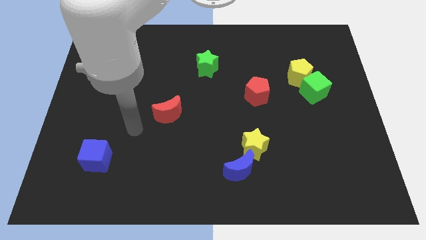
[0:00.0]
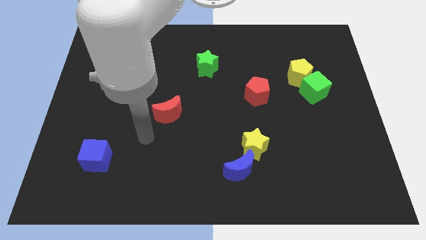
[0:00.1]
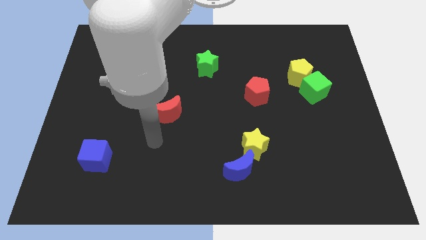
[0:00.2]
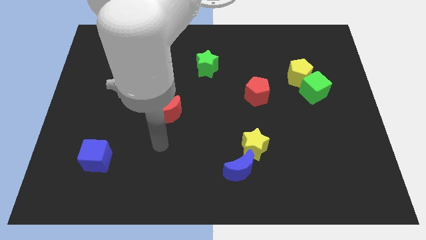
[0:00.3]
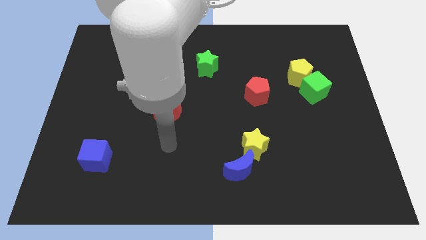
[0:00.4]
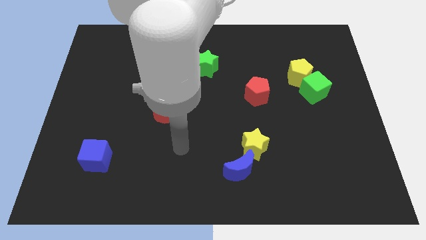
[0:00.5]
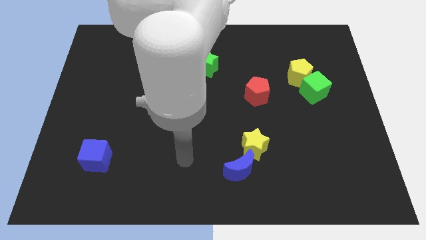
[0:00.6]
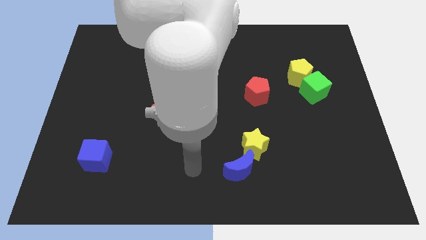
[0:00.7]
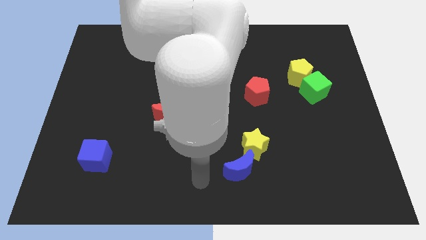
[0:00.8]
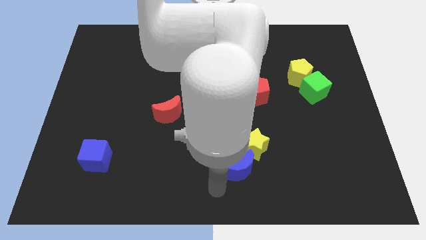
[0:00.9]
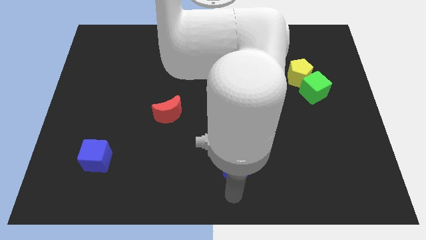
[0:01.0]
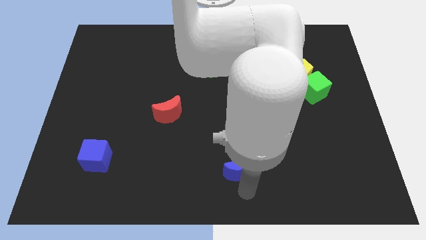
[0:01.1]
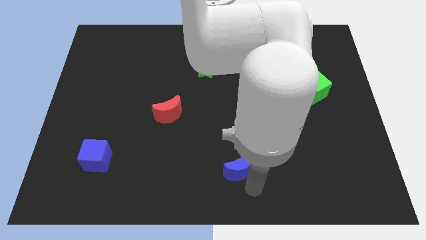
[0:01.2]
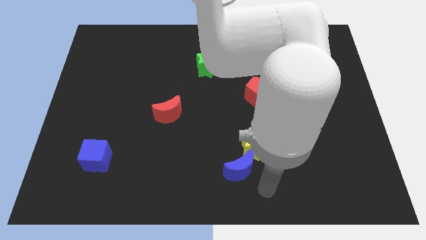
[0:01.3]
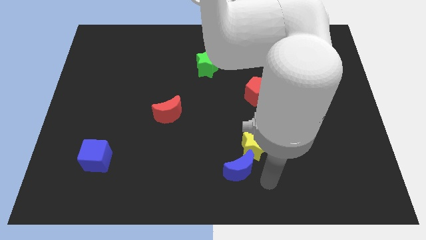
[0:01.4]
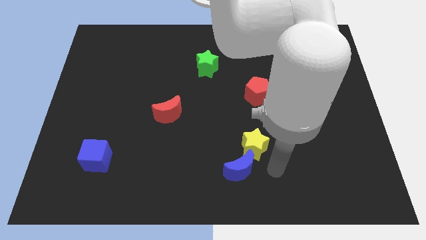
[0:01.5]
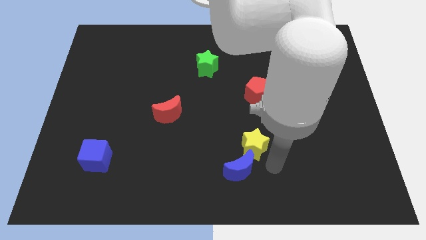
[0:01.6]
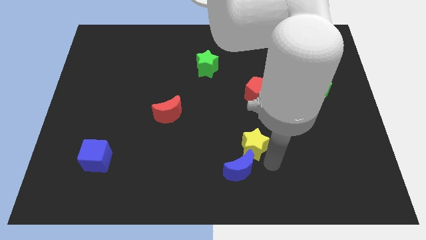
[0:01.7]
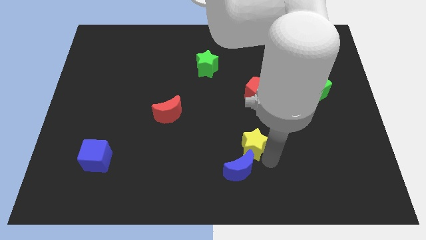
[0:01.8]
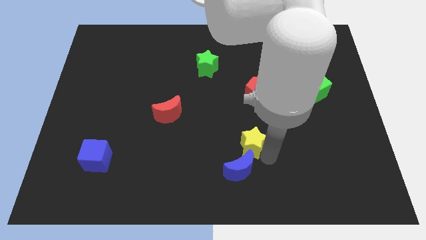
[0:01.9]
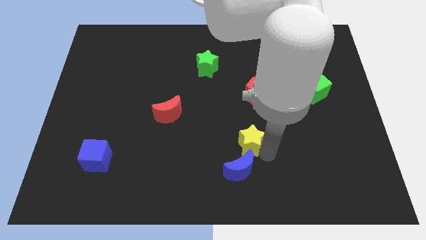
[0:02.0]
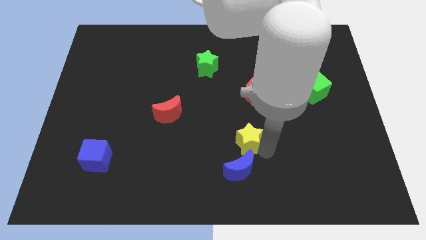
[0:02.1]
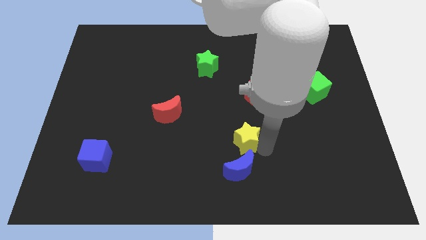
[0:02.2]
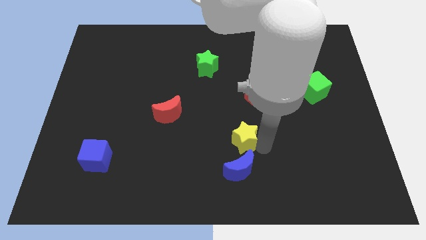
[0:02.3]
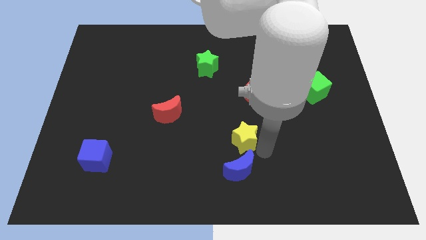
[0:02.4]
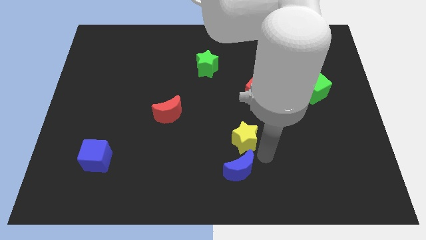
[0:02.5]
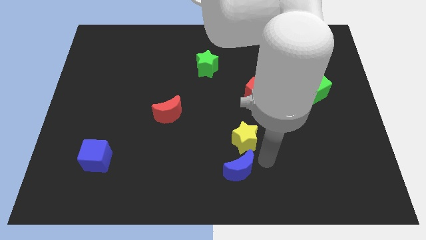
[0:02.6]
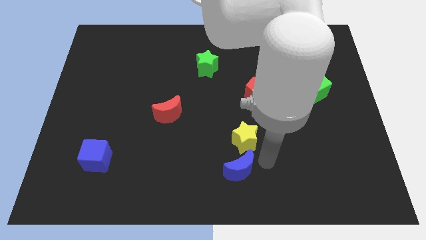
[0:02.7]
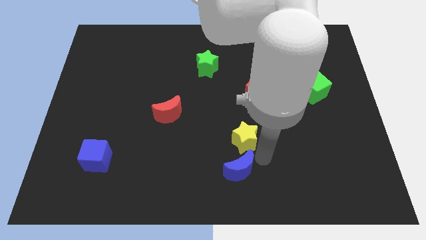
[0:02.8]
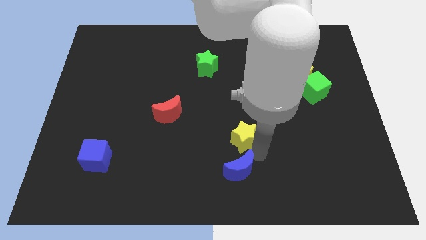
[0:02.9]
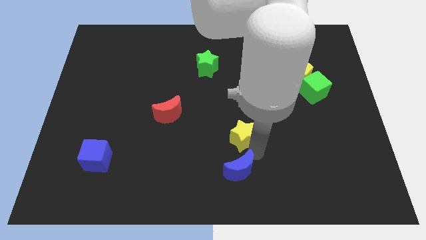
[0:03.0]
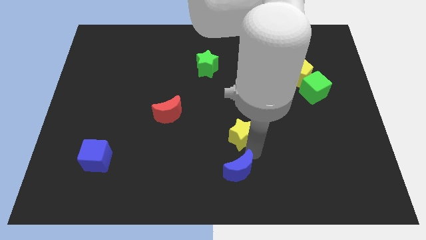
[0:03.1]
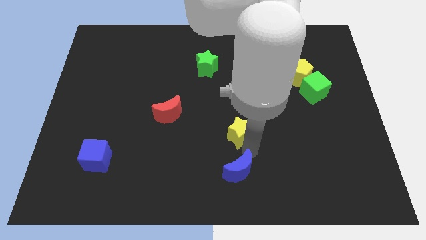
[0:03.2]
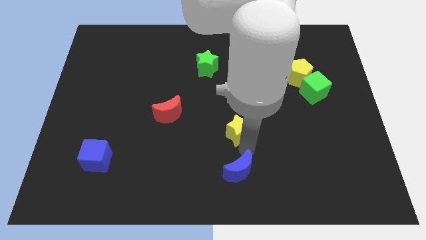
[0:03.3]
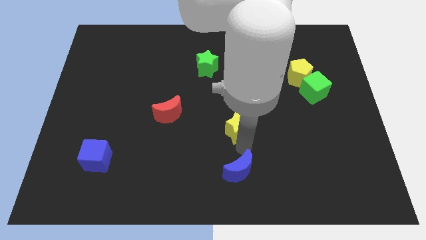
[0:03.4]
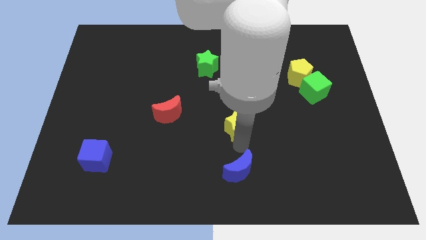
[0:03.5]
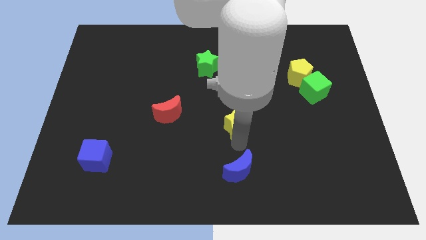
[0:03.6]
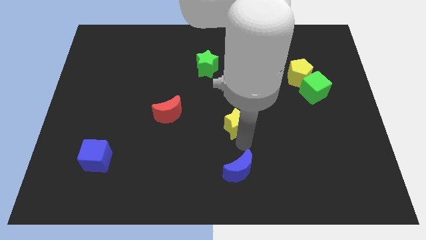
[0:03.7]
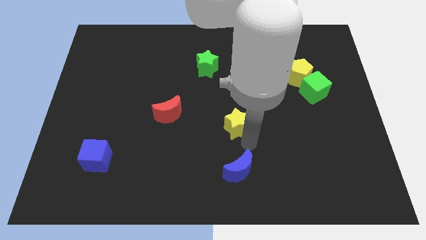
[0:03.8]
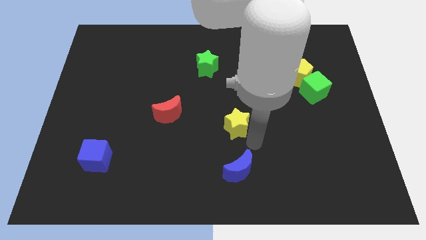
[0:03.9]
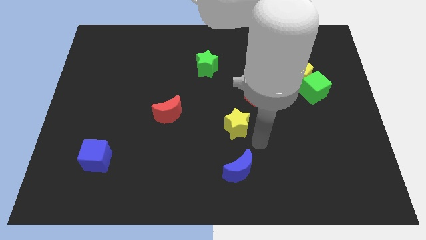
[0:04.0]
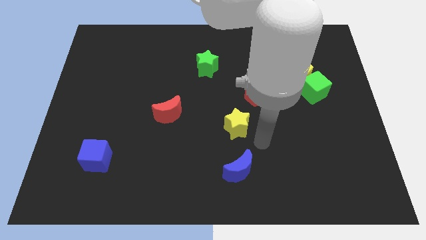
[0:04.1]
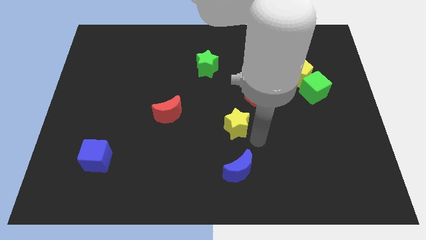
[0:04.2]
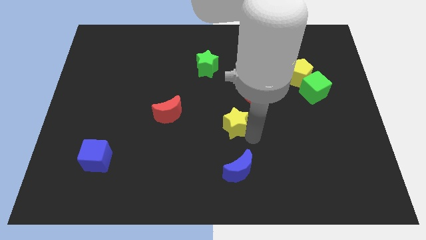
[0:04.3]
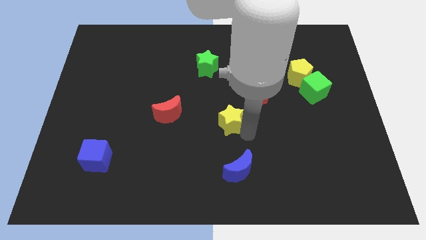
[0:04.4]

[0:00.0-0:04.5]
move the yellow star a little bit up and then to the left

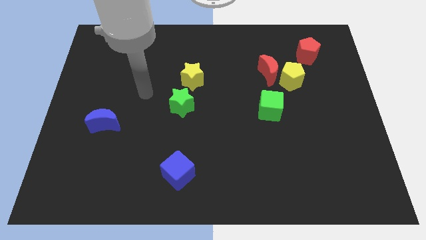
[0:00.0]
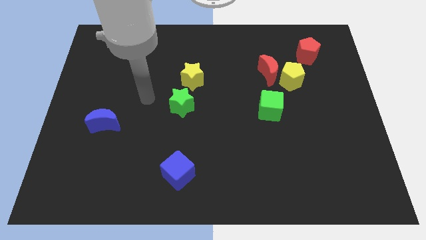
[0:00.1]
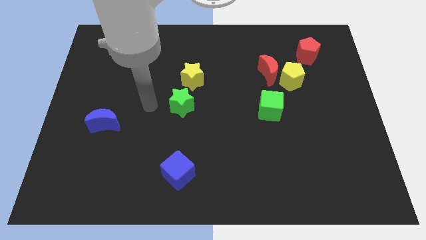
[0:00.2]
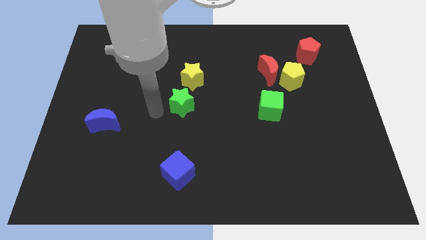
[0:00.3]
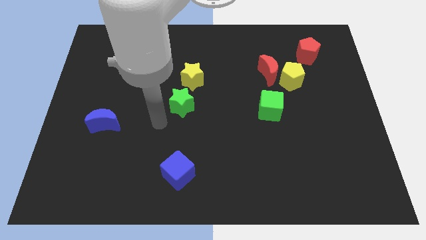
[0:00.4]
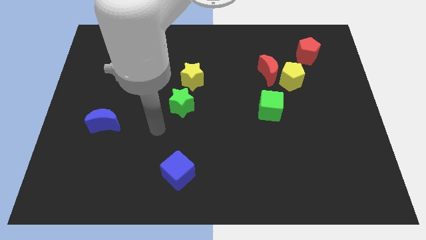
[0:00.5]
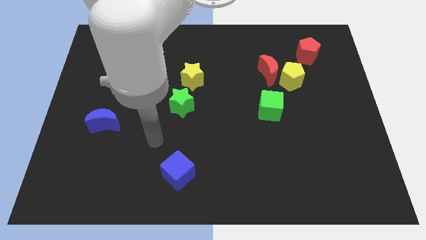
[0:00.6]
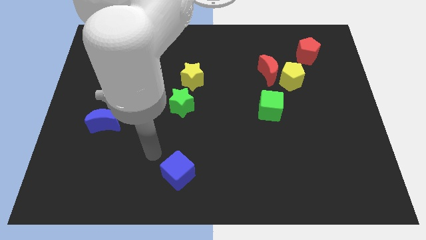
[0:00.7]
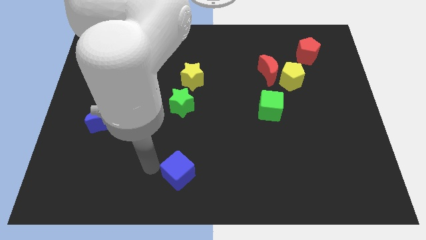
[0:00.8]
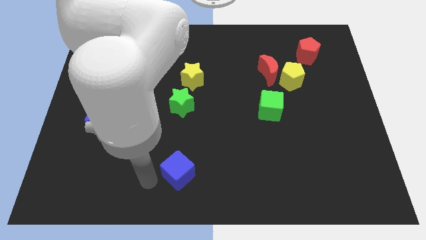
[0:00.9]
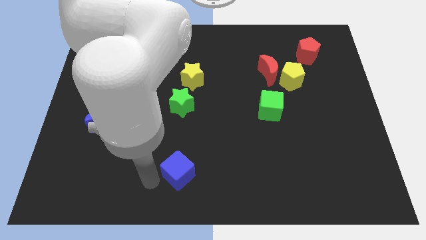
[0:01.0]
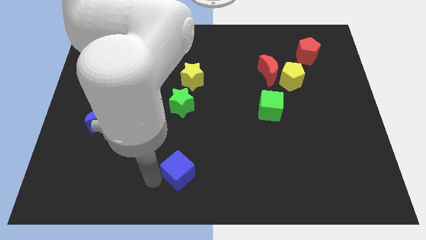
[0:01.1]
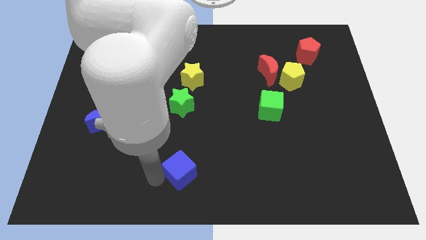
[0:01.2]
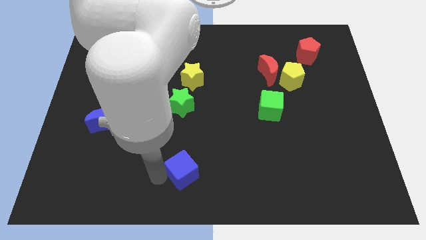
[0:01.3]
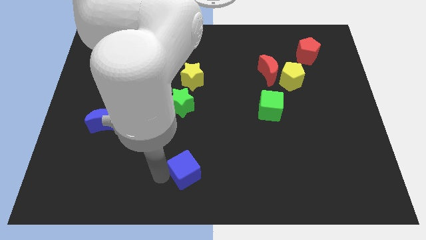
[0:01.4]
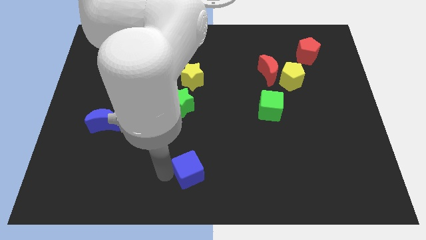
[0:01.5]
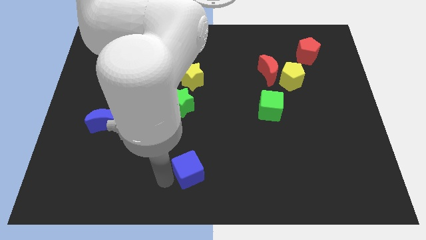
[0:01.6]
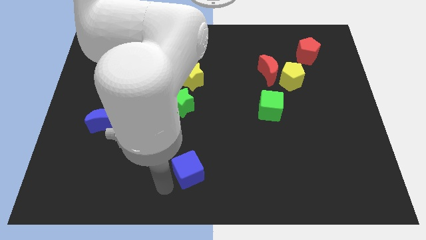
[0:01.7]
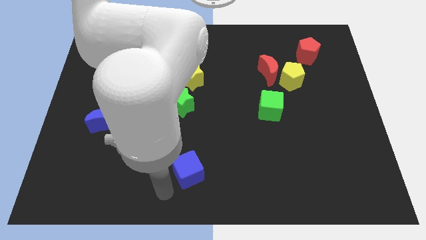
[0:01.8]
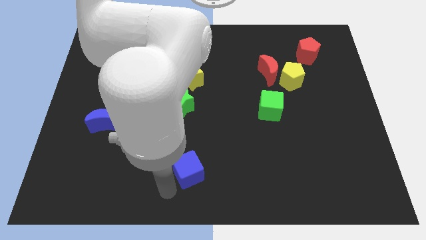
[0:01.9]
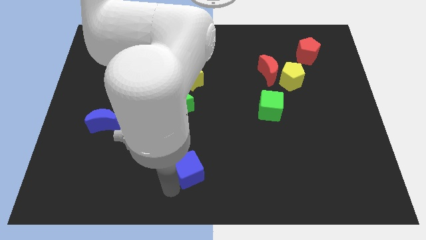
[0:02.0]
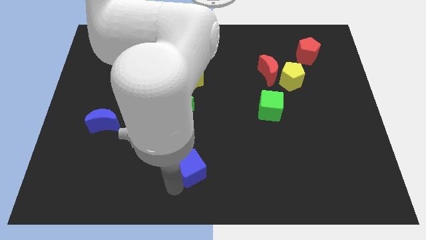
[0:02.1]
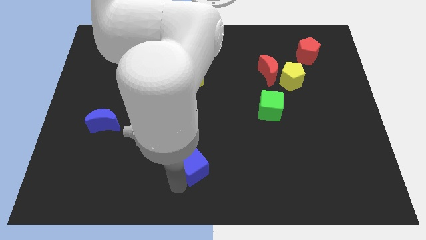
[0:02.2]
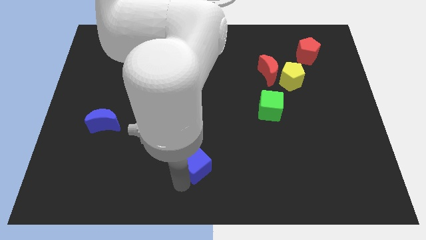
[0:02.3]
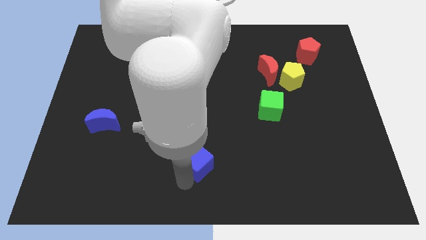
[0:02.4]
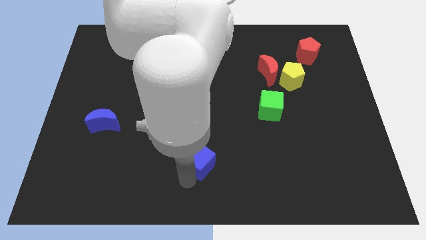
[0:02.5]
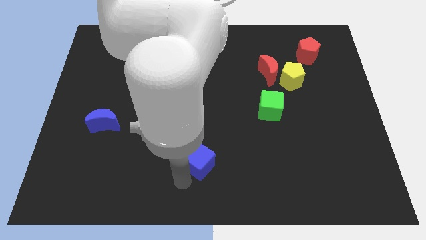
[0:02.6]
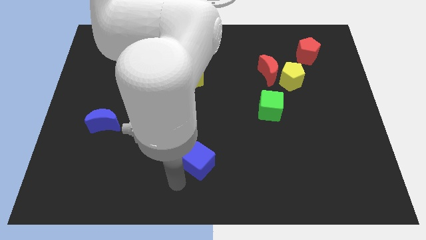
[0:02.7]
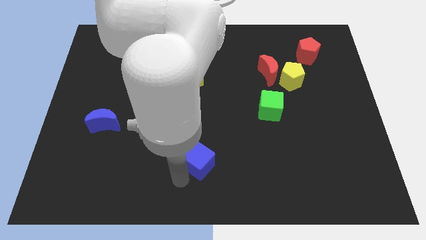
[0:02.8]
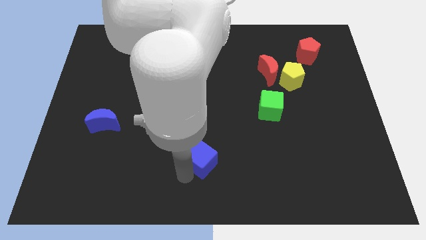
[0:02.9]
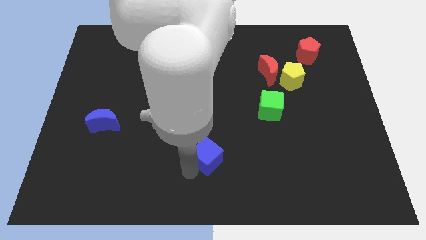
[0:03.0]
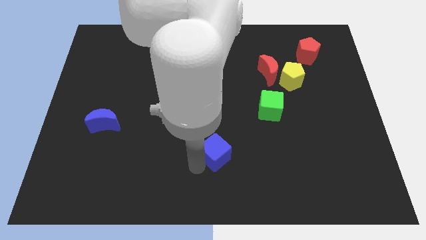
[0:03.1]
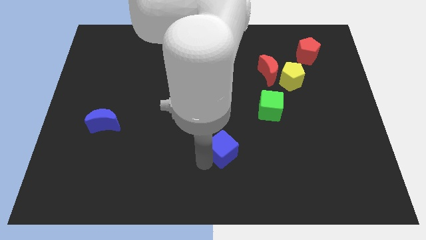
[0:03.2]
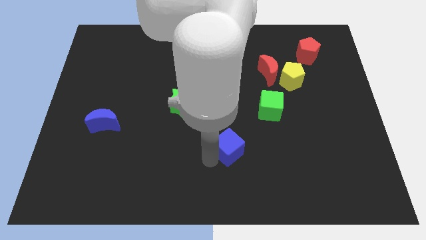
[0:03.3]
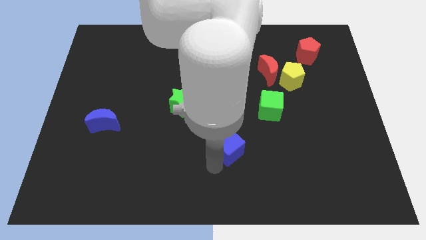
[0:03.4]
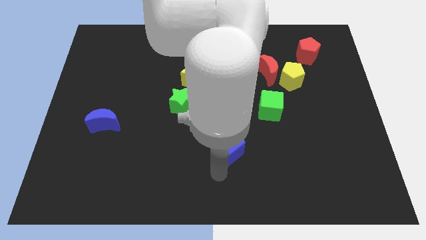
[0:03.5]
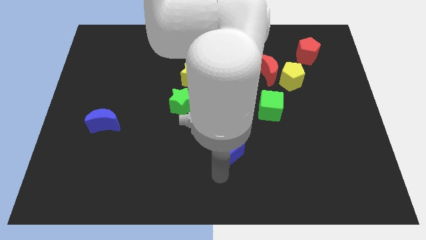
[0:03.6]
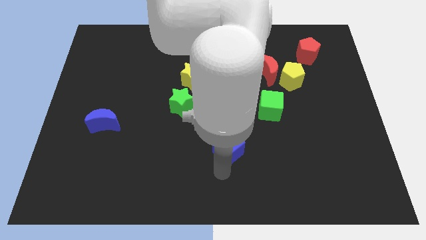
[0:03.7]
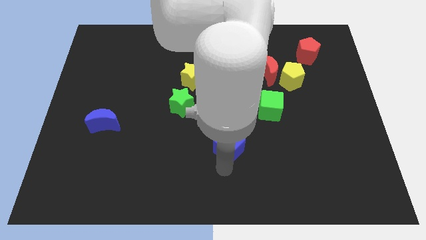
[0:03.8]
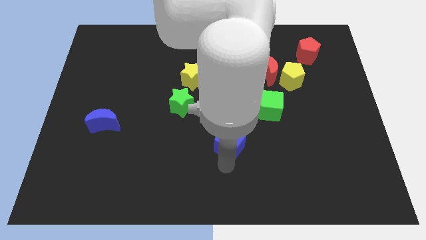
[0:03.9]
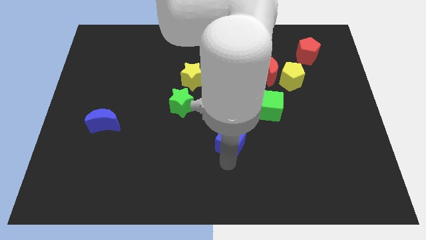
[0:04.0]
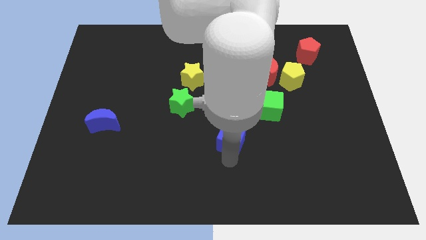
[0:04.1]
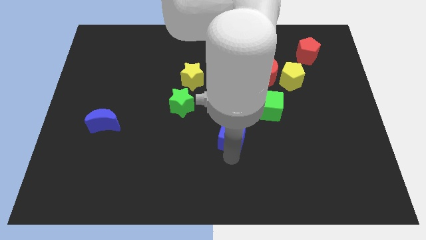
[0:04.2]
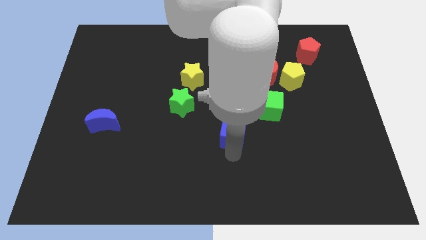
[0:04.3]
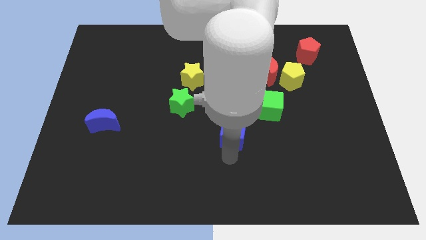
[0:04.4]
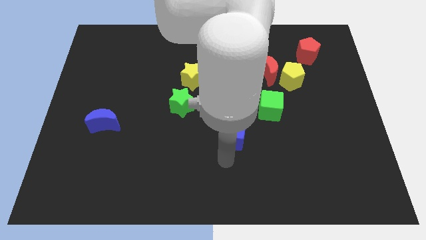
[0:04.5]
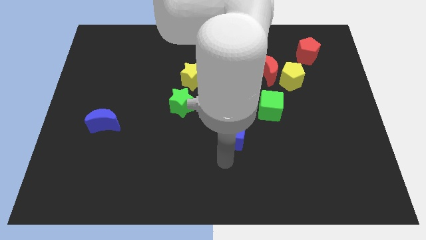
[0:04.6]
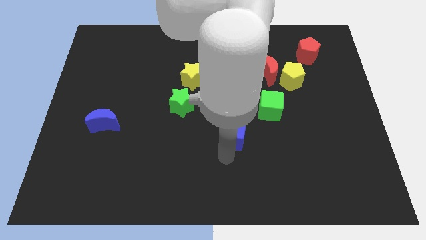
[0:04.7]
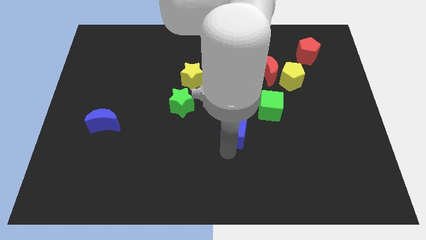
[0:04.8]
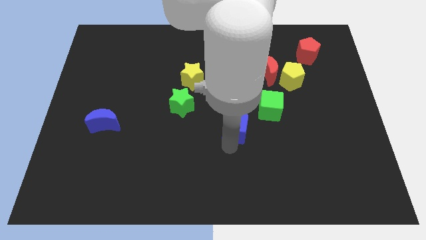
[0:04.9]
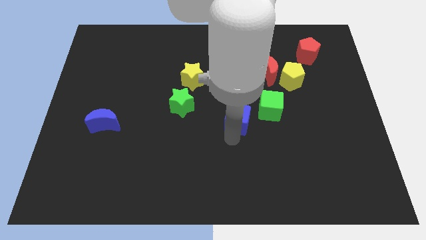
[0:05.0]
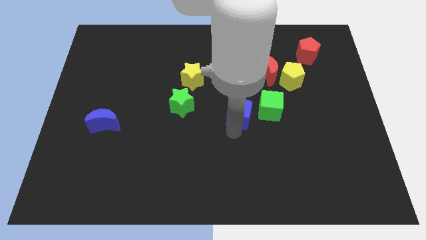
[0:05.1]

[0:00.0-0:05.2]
push the blue cube up and then right
